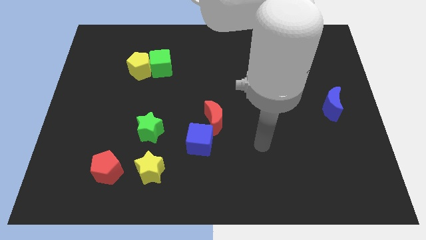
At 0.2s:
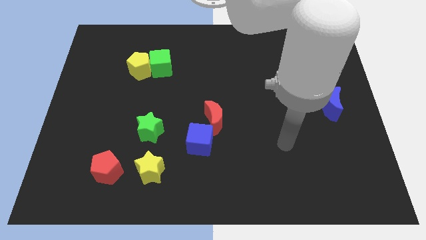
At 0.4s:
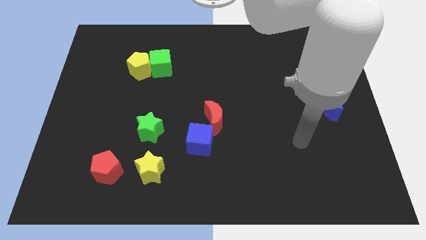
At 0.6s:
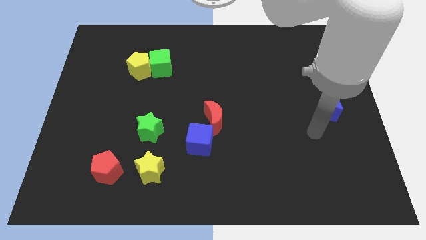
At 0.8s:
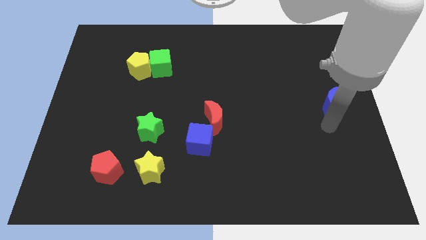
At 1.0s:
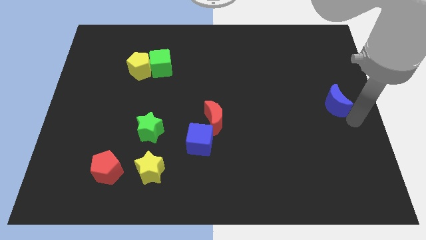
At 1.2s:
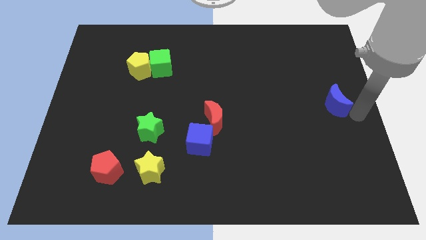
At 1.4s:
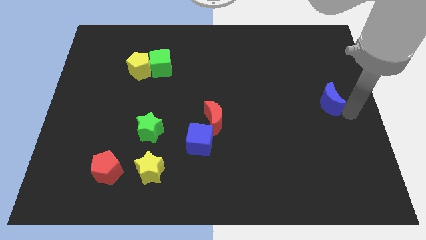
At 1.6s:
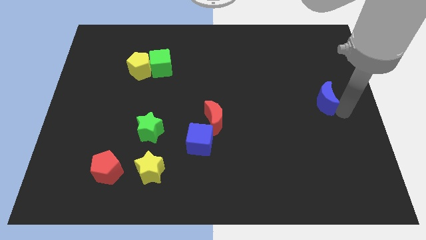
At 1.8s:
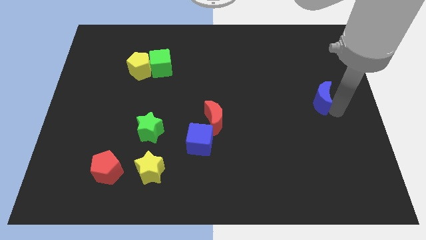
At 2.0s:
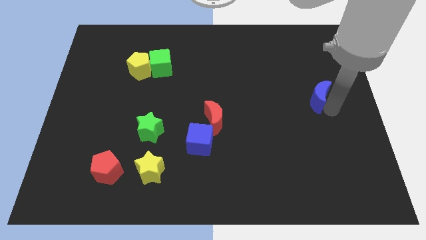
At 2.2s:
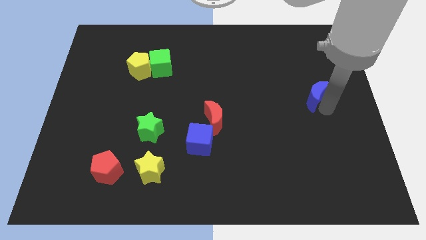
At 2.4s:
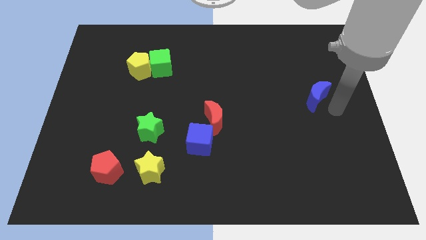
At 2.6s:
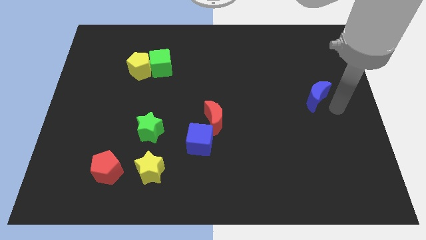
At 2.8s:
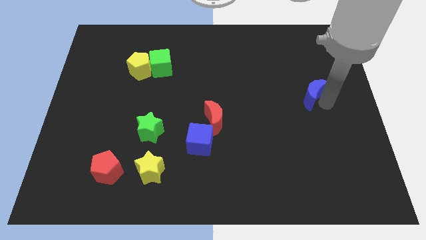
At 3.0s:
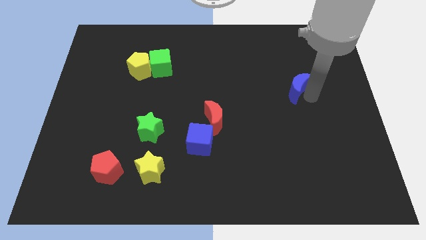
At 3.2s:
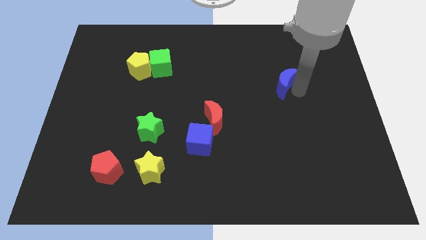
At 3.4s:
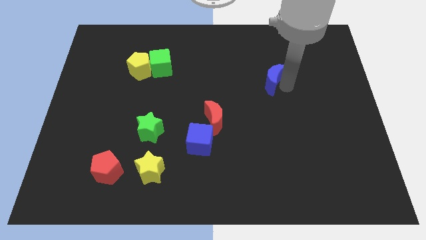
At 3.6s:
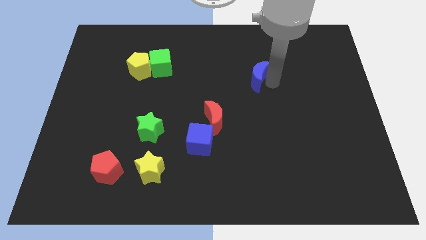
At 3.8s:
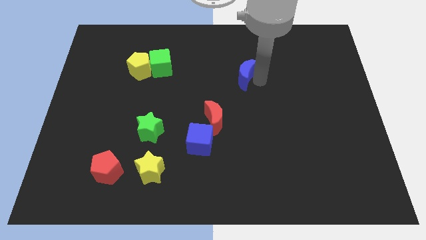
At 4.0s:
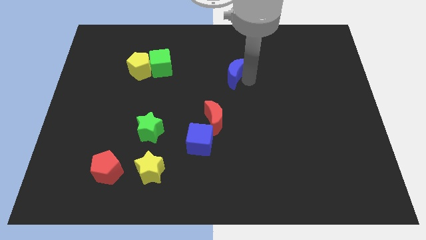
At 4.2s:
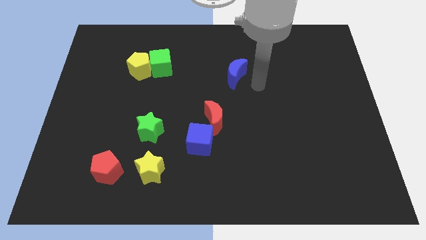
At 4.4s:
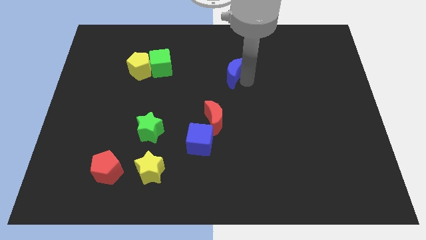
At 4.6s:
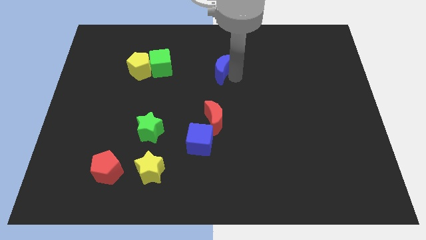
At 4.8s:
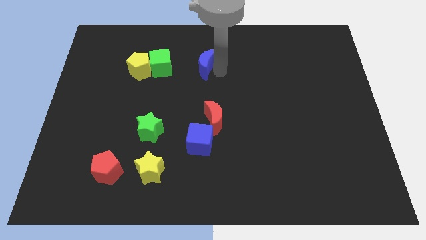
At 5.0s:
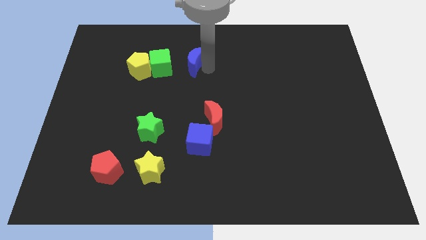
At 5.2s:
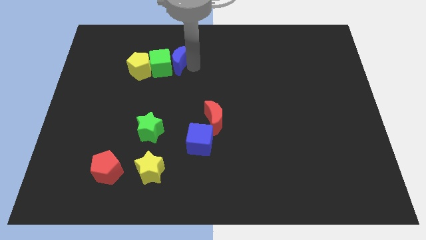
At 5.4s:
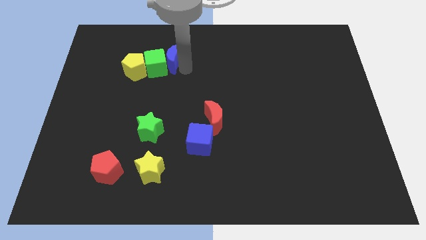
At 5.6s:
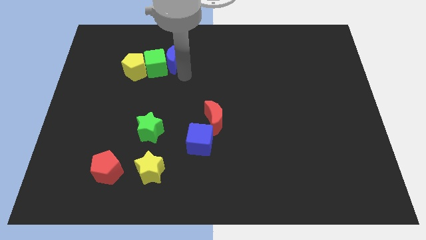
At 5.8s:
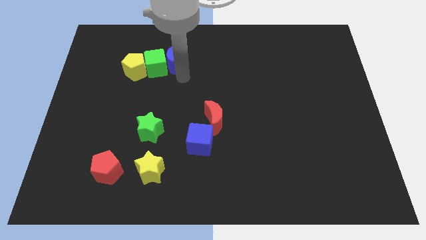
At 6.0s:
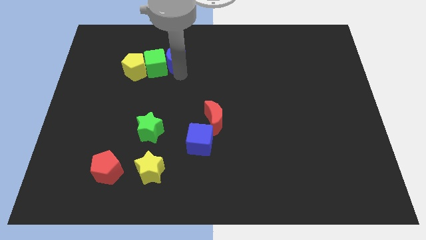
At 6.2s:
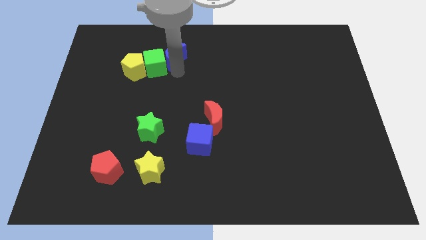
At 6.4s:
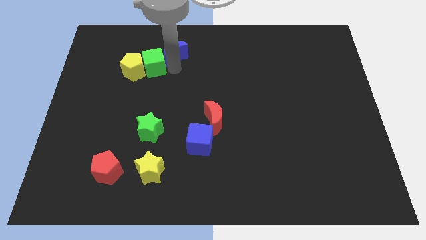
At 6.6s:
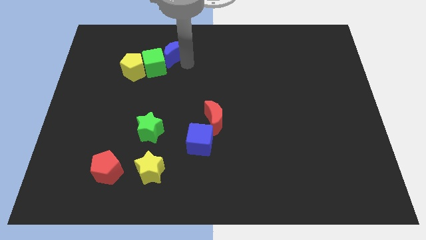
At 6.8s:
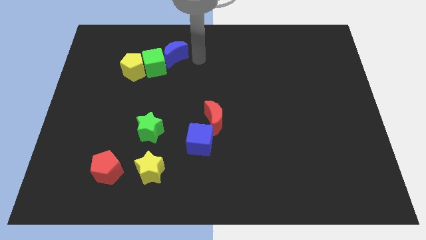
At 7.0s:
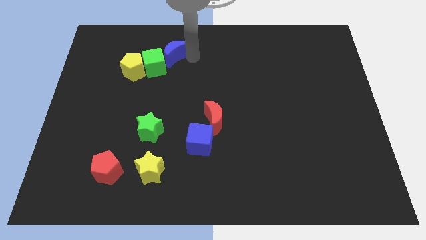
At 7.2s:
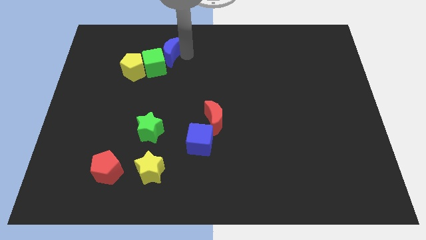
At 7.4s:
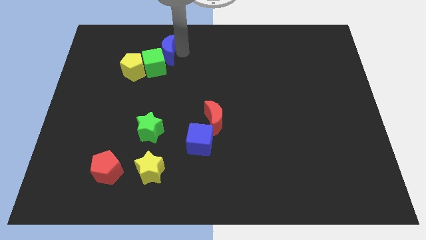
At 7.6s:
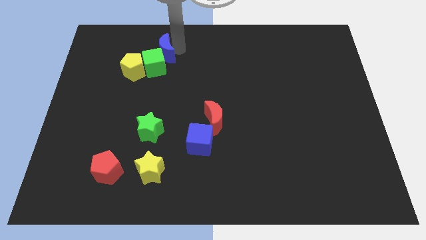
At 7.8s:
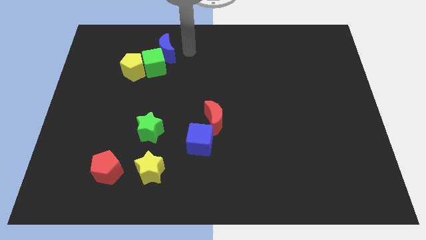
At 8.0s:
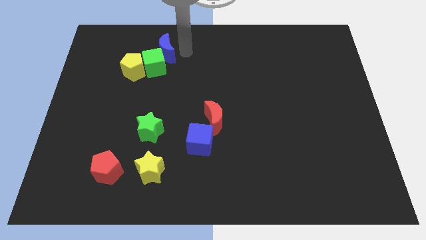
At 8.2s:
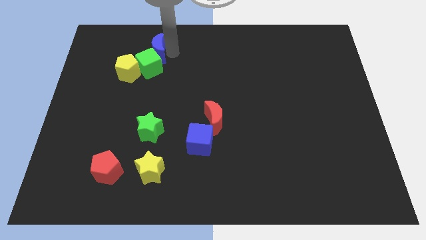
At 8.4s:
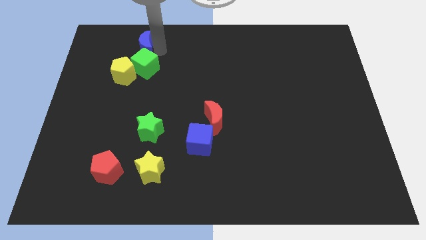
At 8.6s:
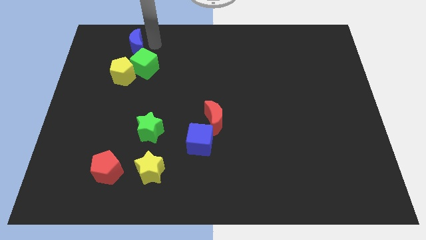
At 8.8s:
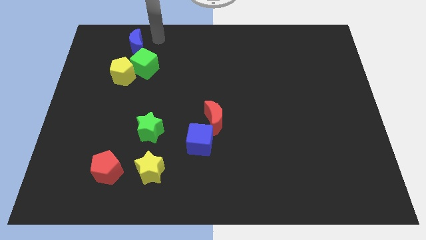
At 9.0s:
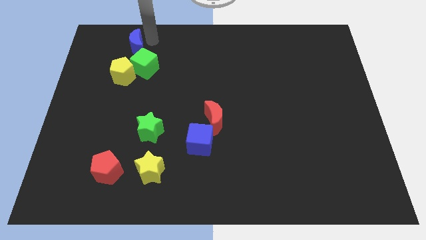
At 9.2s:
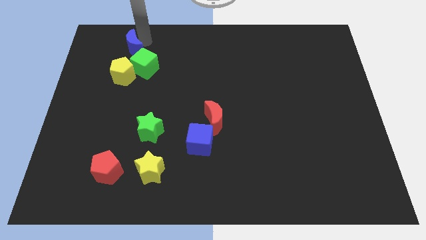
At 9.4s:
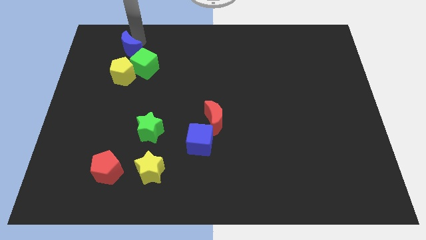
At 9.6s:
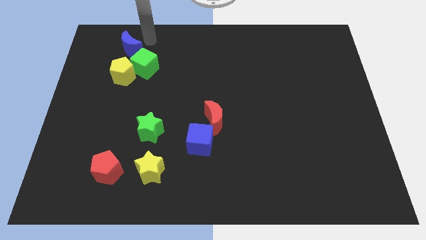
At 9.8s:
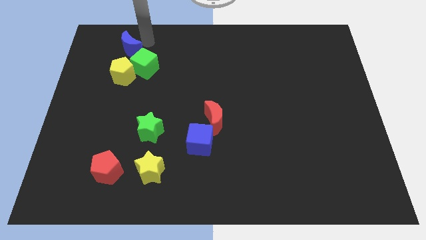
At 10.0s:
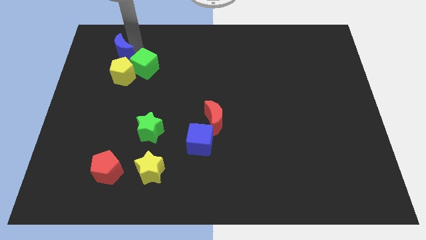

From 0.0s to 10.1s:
put the blue moon diagonally up and to the left of the yellow pentagon

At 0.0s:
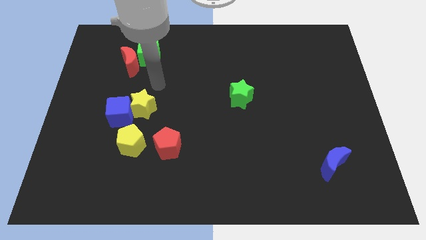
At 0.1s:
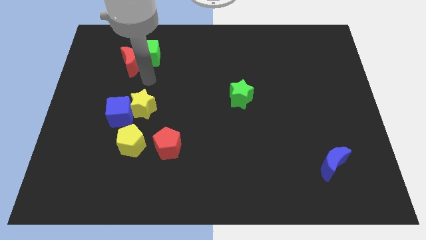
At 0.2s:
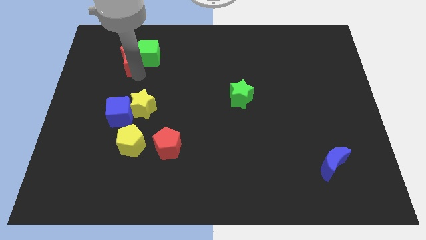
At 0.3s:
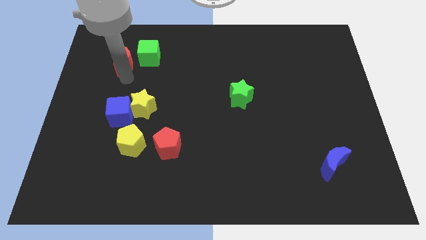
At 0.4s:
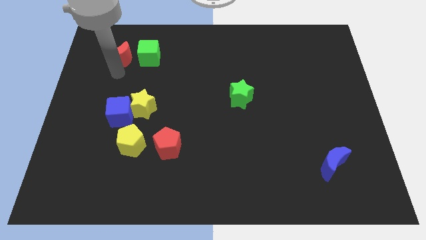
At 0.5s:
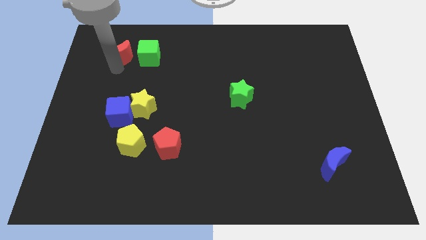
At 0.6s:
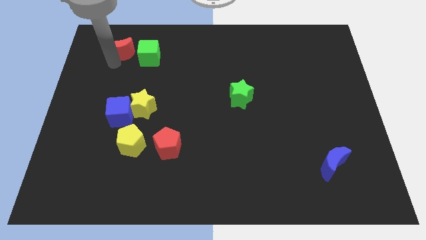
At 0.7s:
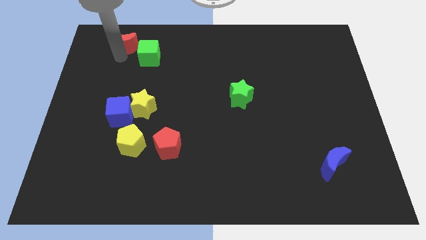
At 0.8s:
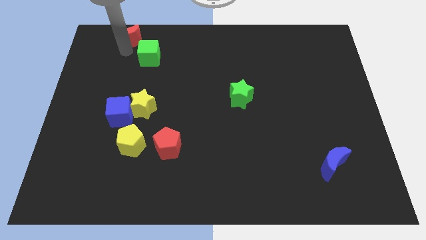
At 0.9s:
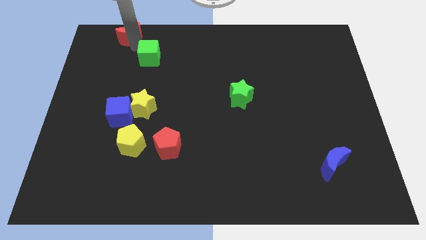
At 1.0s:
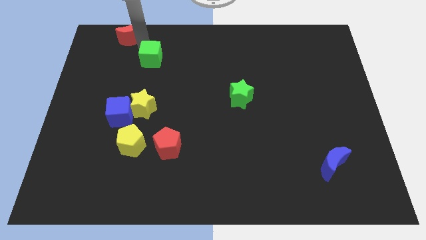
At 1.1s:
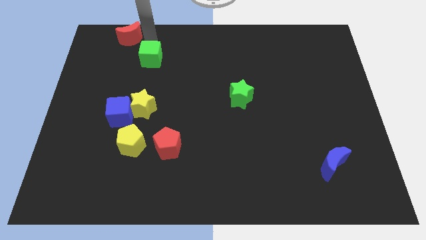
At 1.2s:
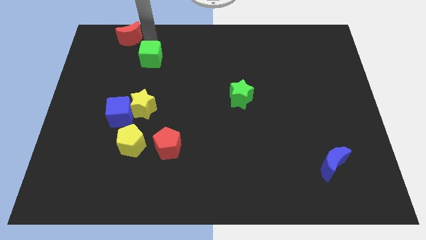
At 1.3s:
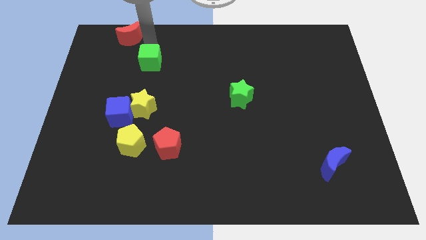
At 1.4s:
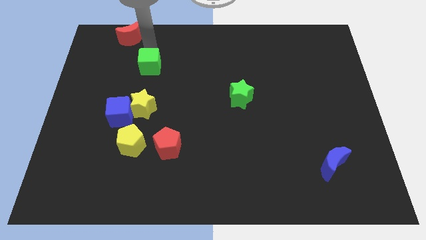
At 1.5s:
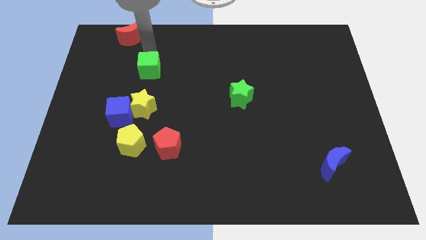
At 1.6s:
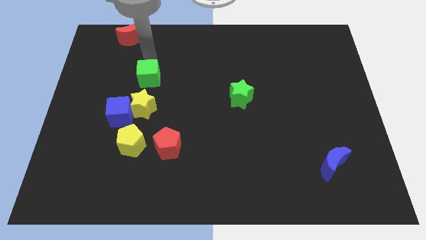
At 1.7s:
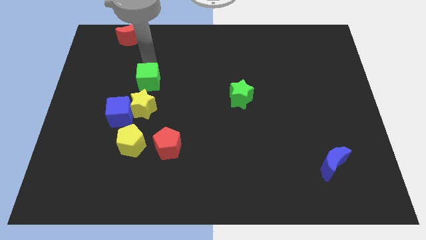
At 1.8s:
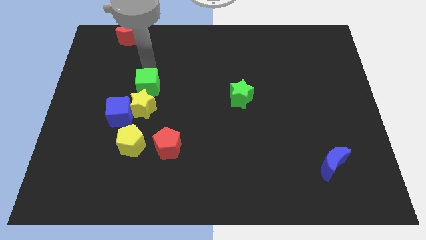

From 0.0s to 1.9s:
push the green cube to the top right side of the blue cube
